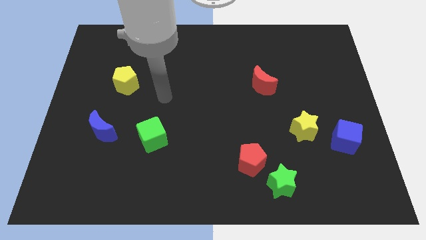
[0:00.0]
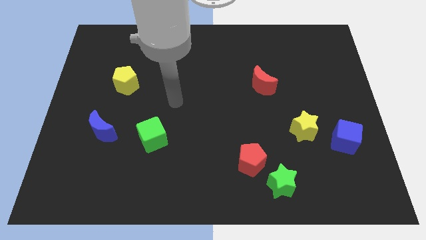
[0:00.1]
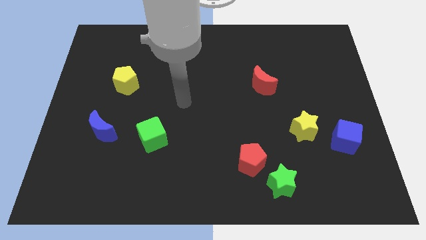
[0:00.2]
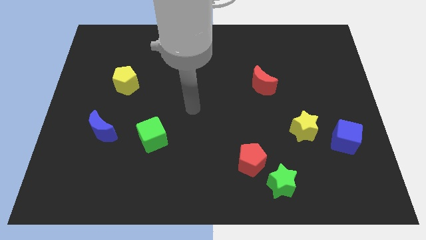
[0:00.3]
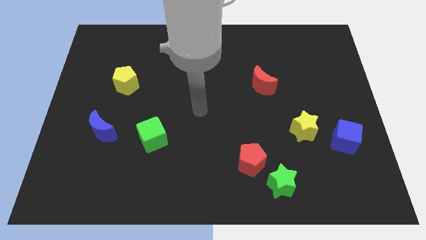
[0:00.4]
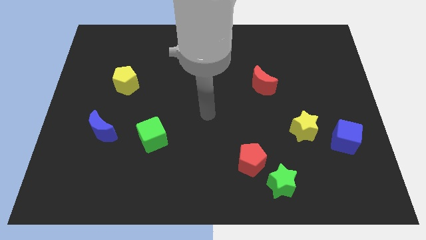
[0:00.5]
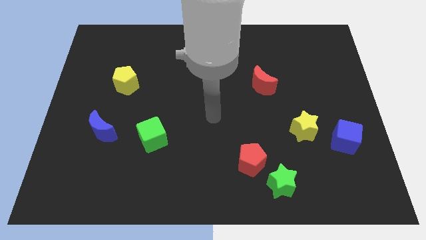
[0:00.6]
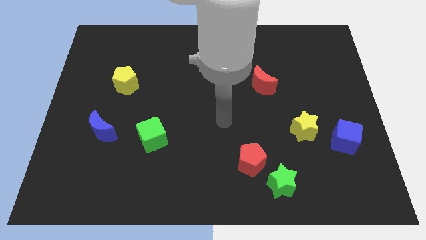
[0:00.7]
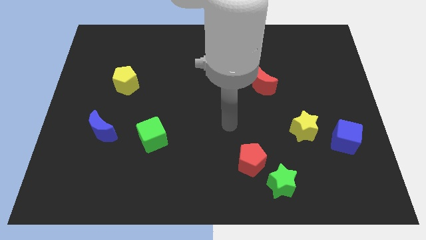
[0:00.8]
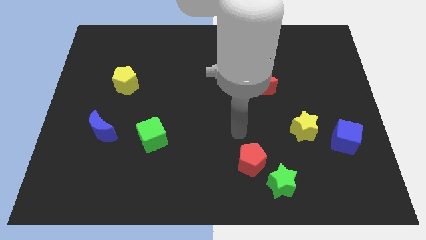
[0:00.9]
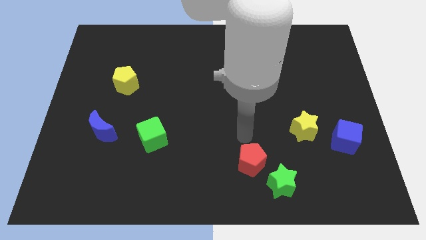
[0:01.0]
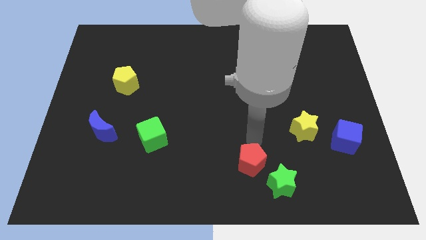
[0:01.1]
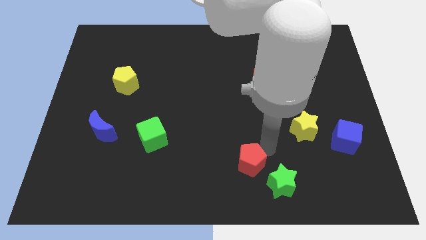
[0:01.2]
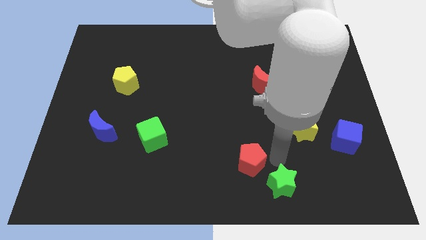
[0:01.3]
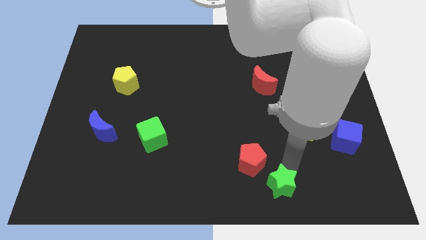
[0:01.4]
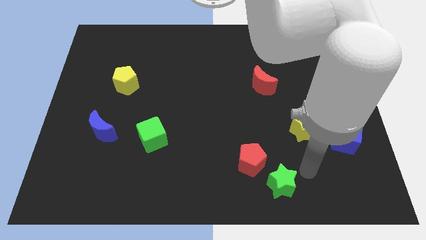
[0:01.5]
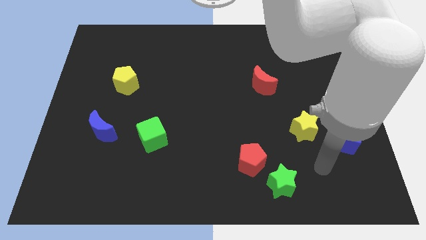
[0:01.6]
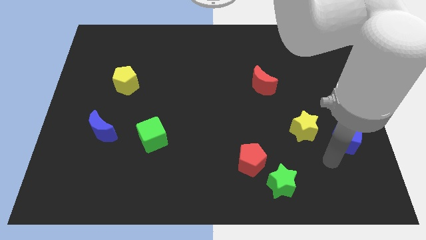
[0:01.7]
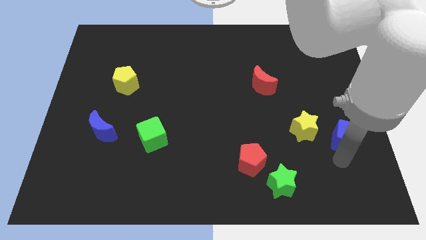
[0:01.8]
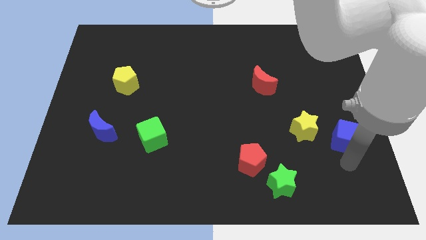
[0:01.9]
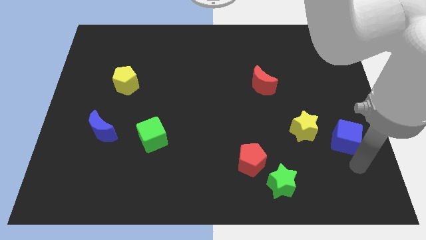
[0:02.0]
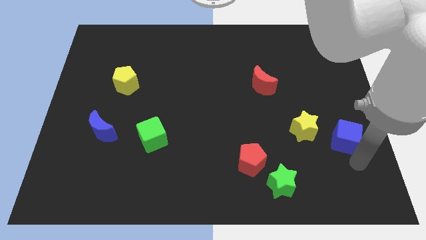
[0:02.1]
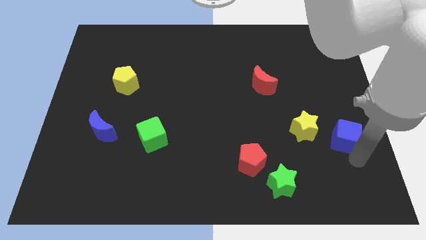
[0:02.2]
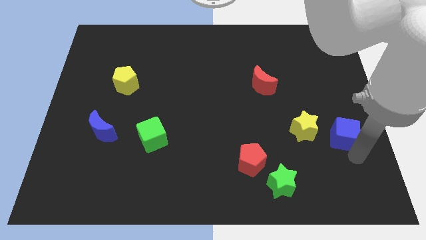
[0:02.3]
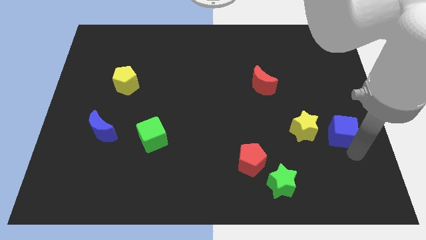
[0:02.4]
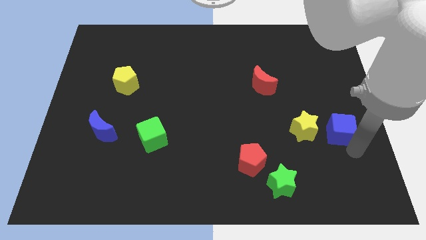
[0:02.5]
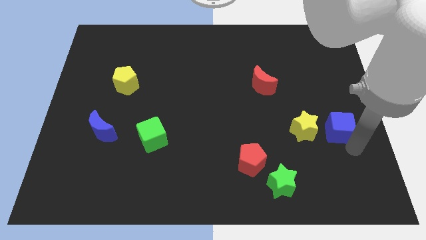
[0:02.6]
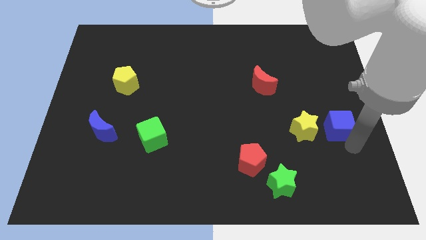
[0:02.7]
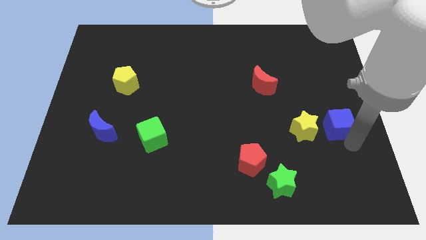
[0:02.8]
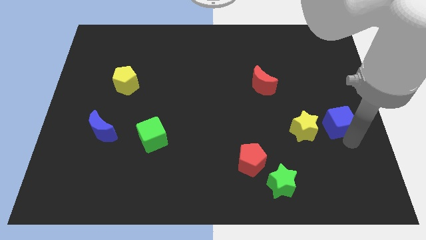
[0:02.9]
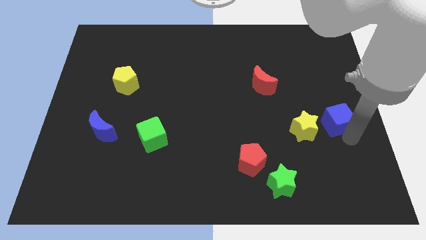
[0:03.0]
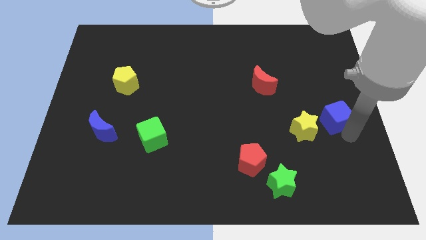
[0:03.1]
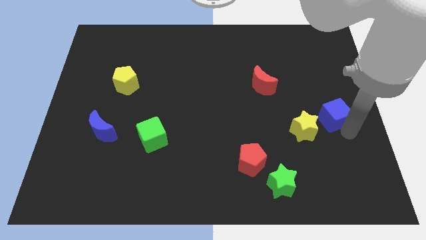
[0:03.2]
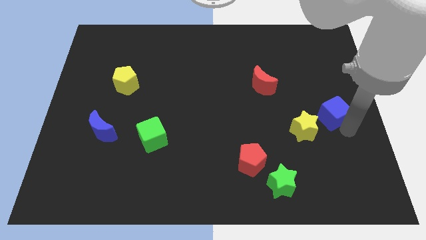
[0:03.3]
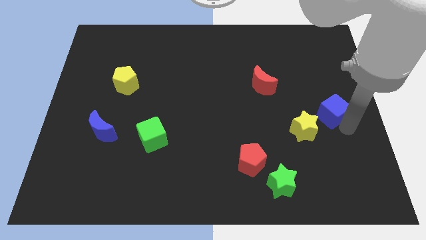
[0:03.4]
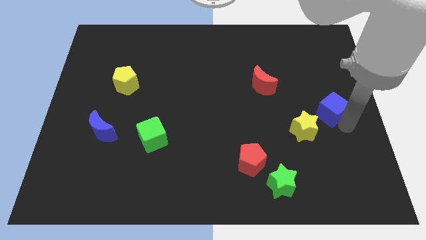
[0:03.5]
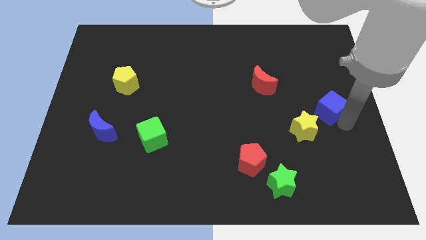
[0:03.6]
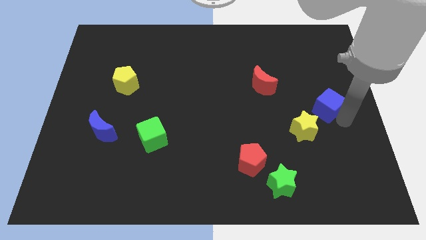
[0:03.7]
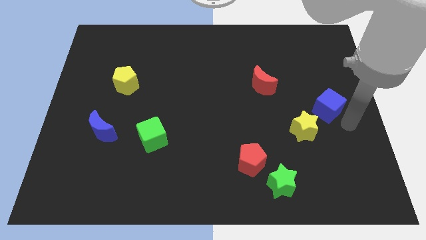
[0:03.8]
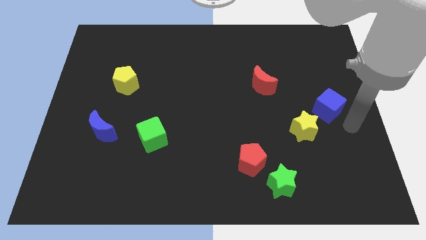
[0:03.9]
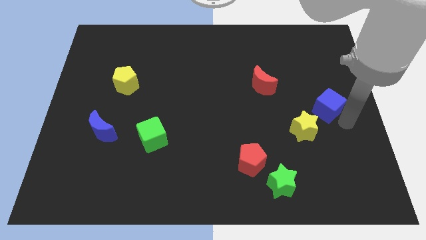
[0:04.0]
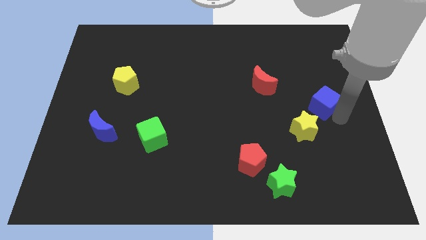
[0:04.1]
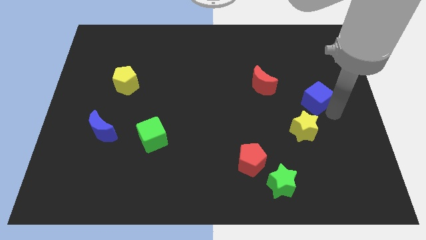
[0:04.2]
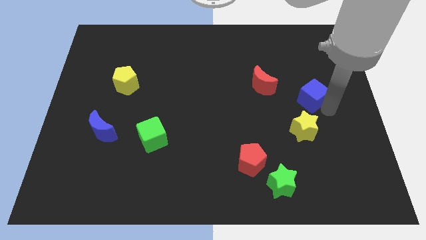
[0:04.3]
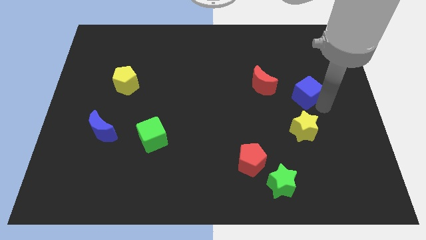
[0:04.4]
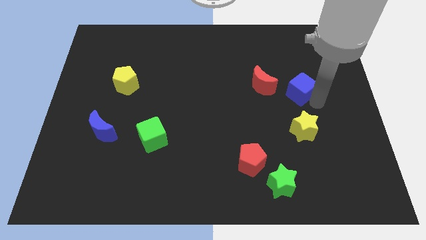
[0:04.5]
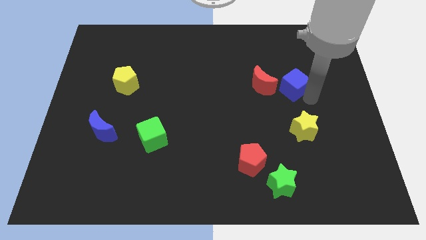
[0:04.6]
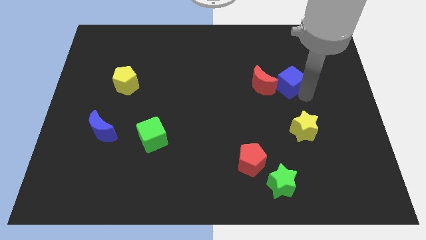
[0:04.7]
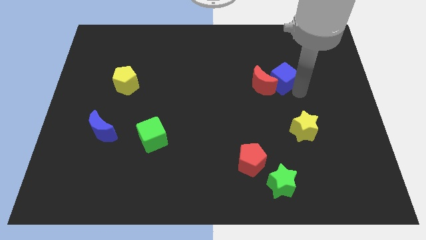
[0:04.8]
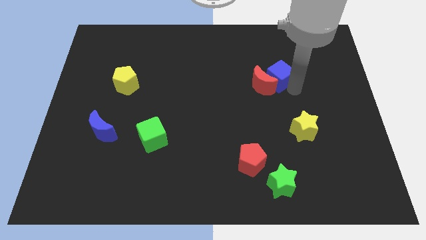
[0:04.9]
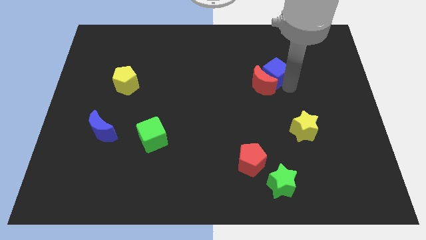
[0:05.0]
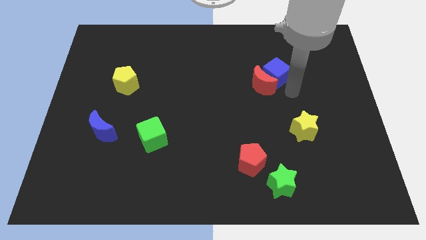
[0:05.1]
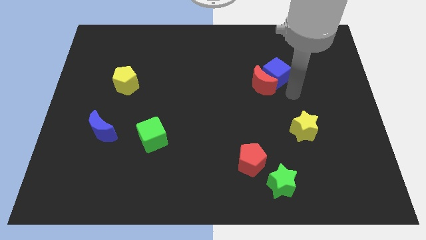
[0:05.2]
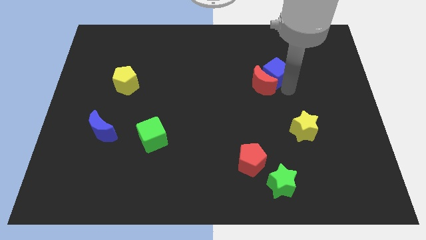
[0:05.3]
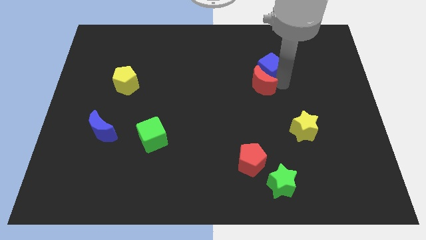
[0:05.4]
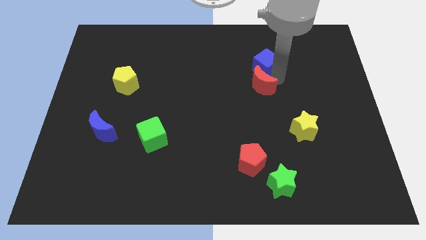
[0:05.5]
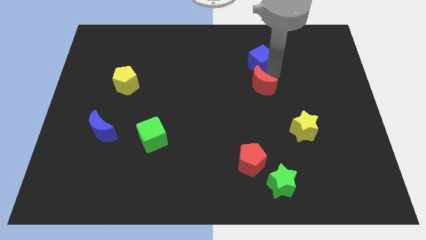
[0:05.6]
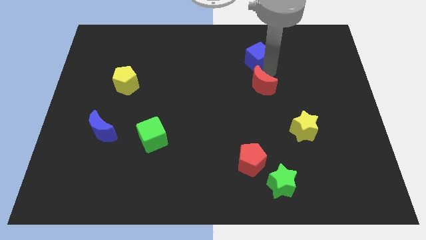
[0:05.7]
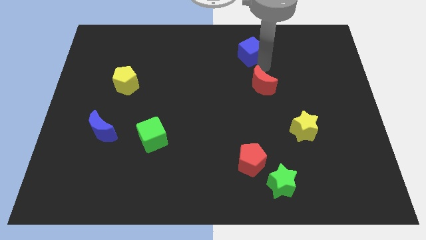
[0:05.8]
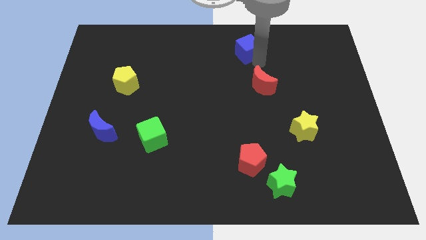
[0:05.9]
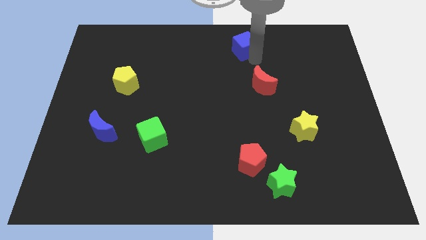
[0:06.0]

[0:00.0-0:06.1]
slide the blue cube to the towards your base

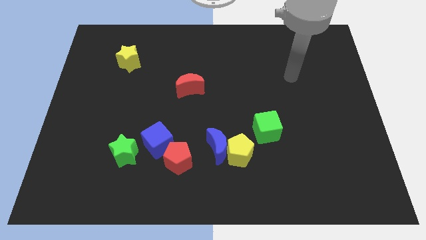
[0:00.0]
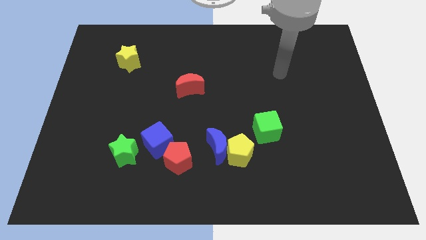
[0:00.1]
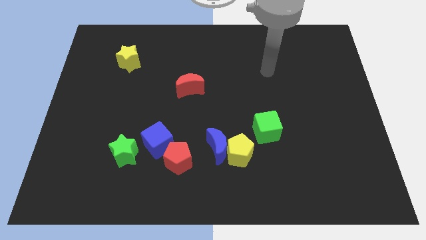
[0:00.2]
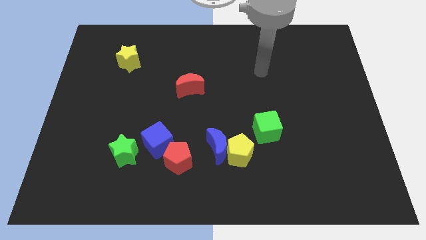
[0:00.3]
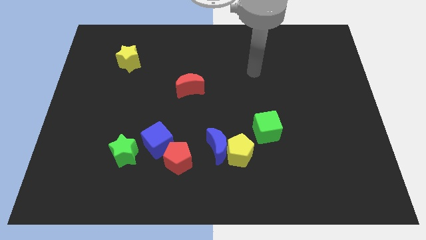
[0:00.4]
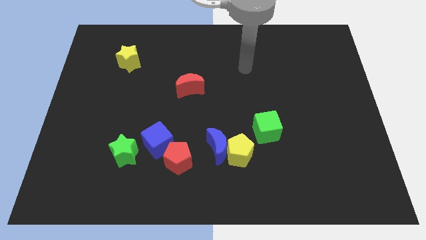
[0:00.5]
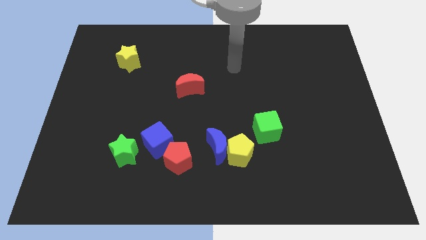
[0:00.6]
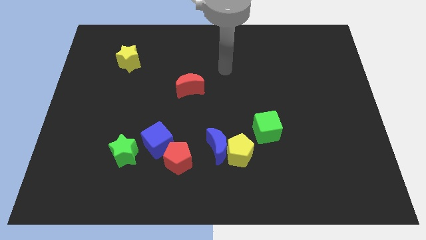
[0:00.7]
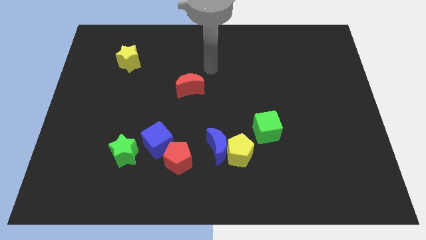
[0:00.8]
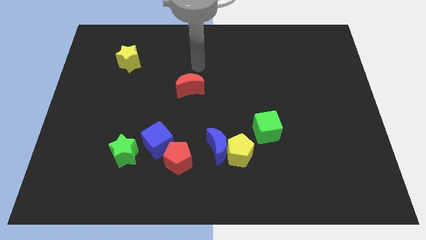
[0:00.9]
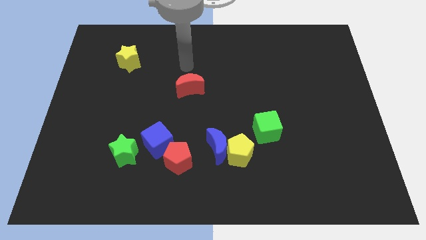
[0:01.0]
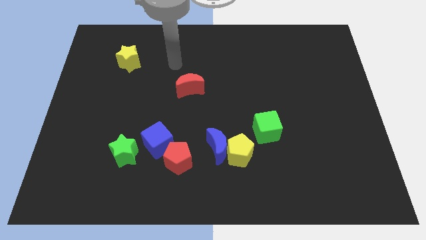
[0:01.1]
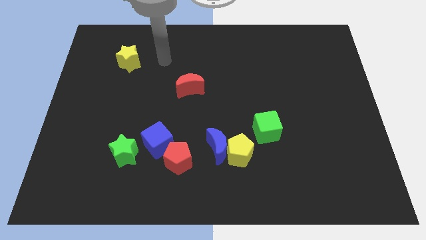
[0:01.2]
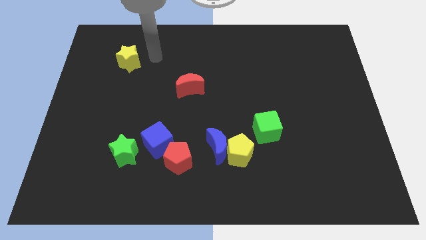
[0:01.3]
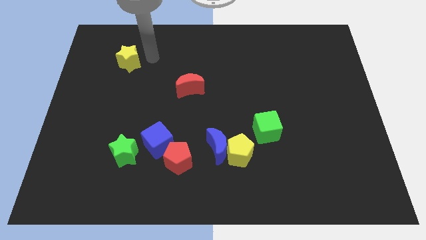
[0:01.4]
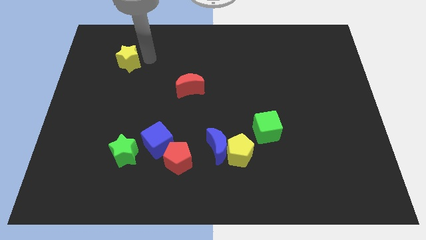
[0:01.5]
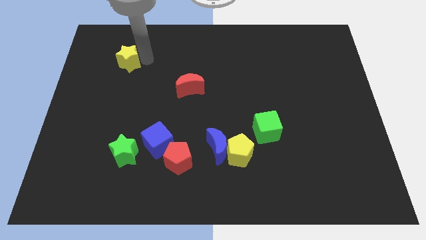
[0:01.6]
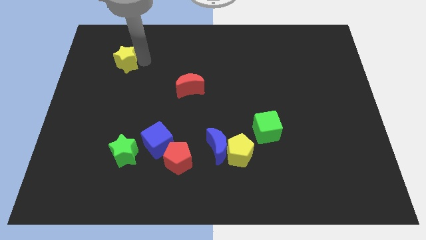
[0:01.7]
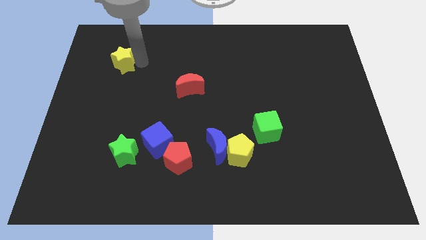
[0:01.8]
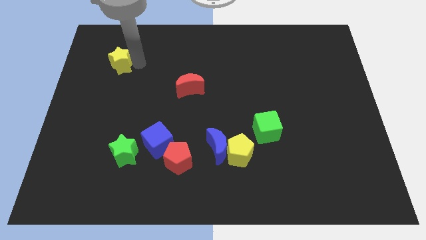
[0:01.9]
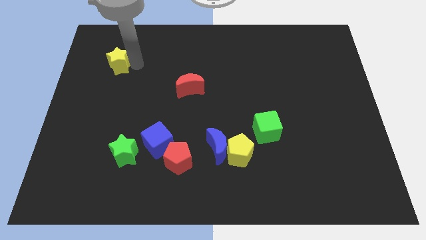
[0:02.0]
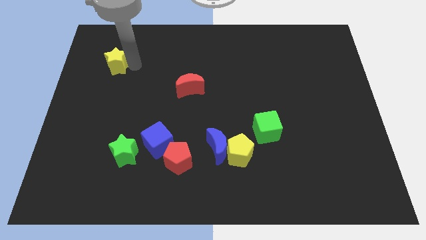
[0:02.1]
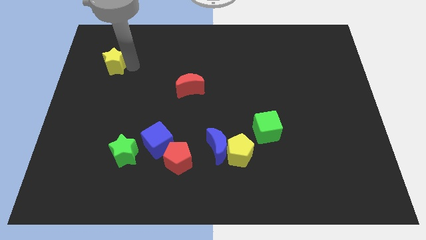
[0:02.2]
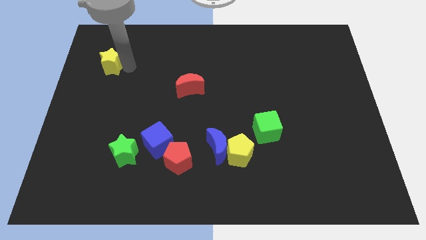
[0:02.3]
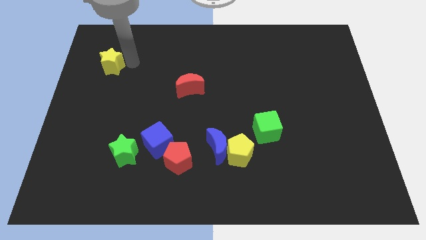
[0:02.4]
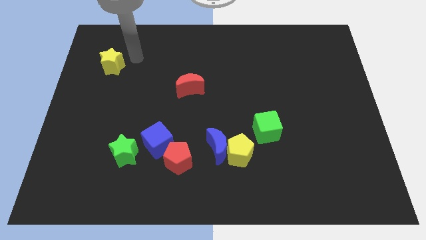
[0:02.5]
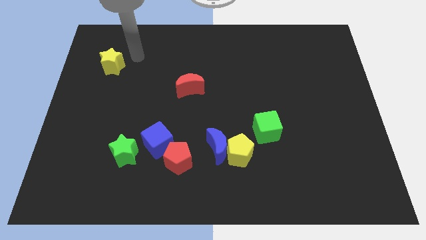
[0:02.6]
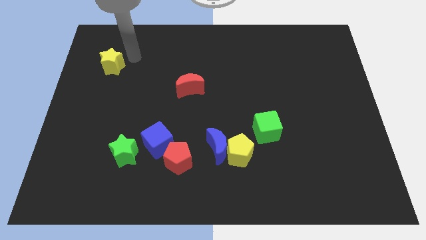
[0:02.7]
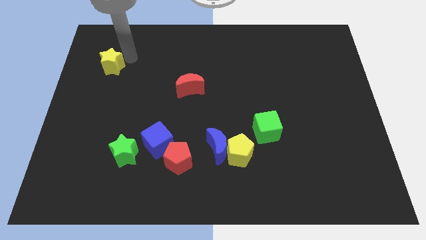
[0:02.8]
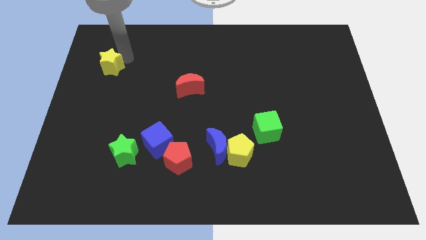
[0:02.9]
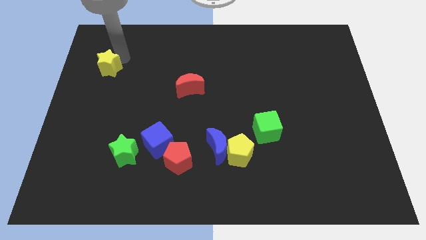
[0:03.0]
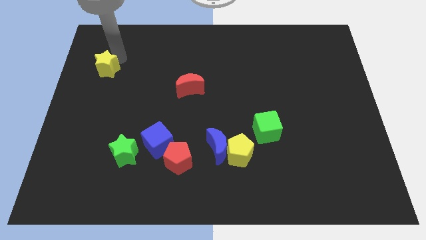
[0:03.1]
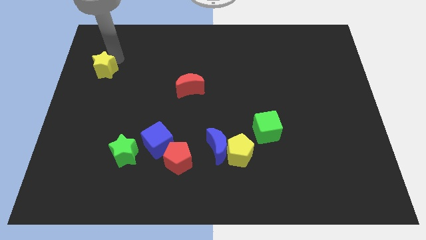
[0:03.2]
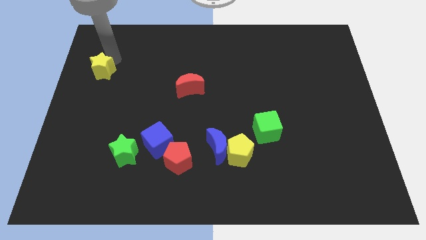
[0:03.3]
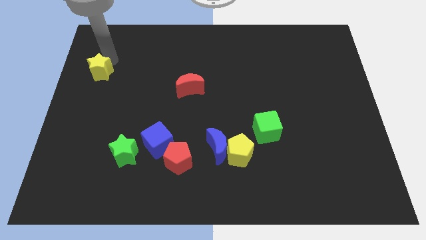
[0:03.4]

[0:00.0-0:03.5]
put the yellow star to the left side
